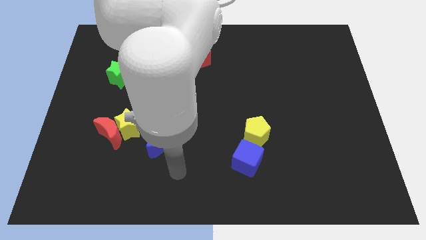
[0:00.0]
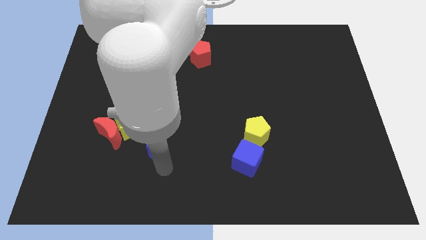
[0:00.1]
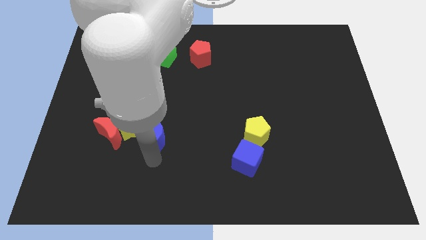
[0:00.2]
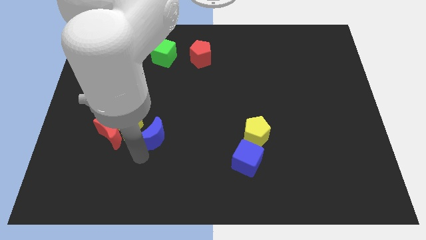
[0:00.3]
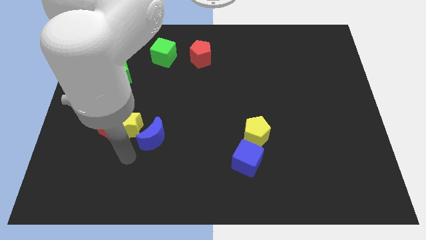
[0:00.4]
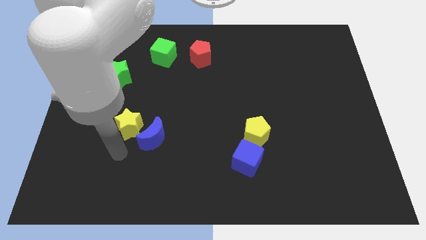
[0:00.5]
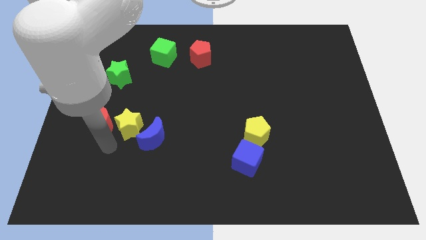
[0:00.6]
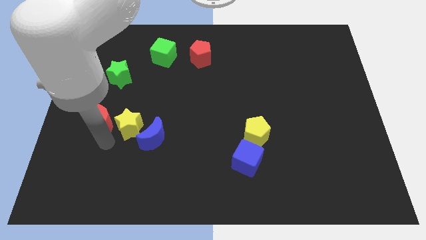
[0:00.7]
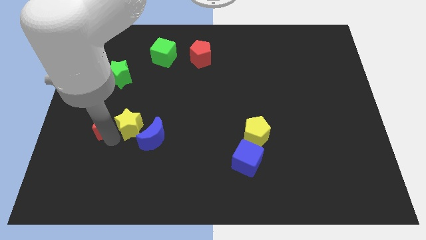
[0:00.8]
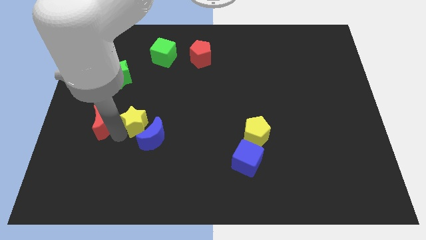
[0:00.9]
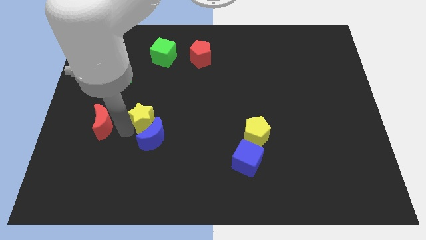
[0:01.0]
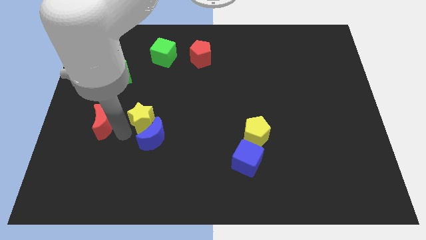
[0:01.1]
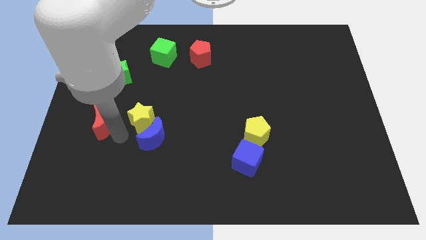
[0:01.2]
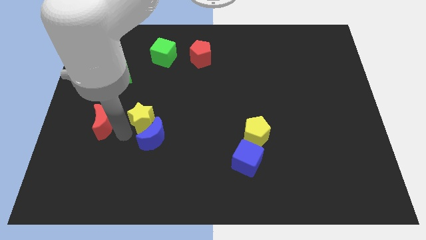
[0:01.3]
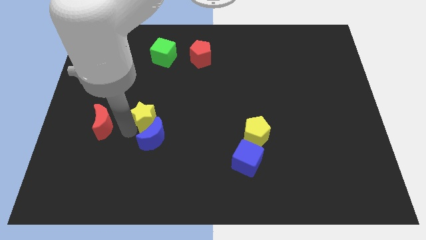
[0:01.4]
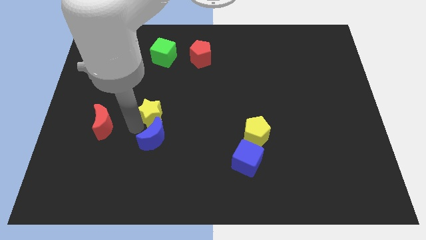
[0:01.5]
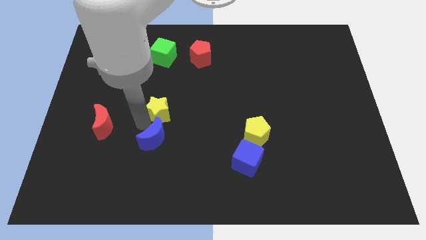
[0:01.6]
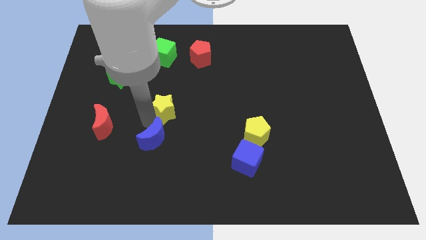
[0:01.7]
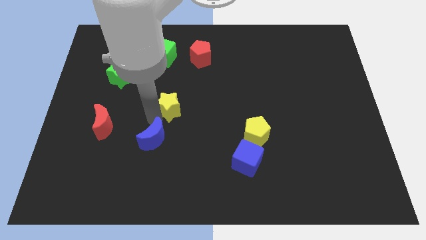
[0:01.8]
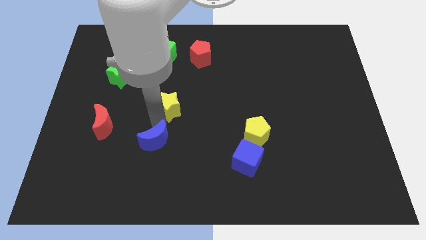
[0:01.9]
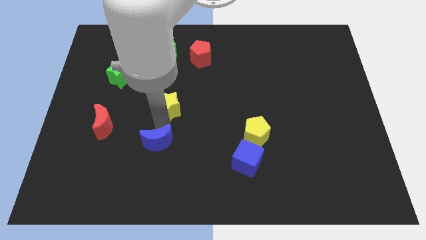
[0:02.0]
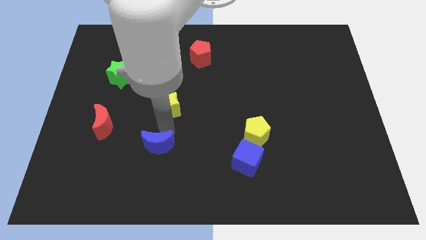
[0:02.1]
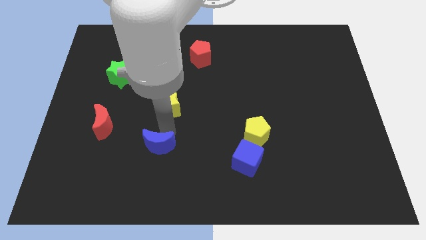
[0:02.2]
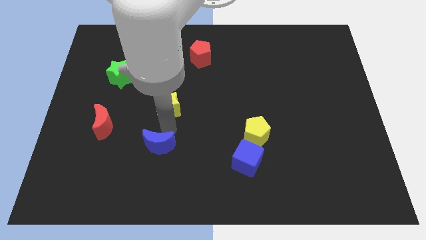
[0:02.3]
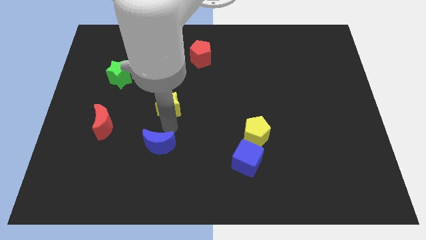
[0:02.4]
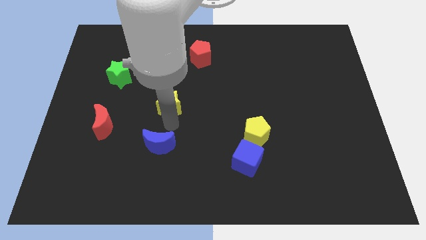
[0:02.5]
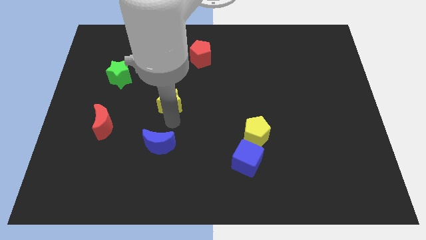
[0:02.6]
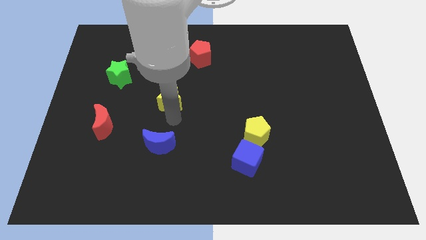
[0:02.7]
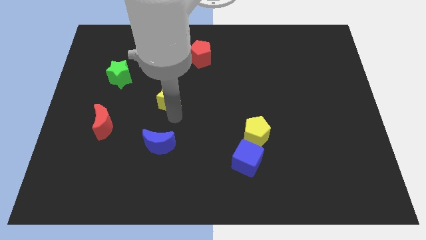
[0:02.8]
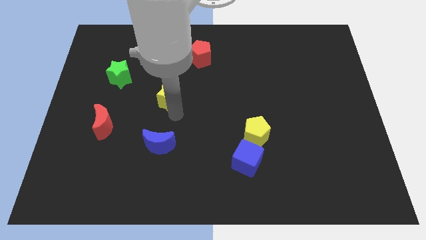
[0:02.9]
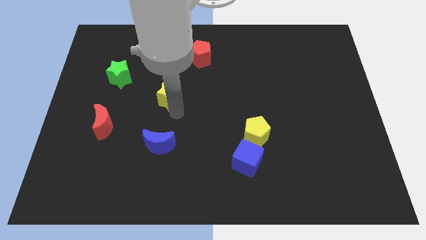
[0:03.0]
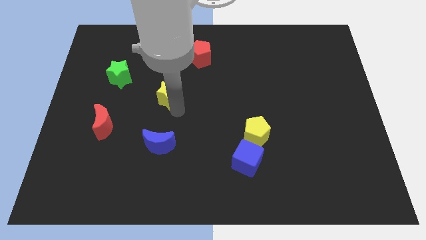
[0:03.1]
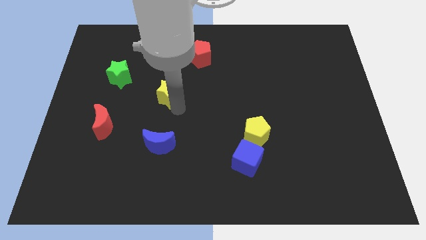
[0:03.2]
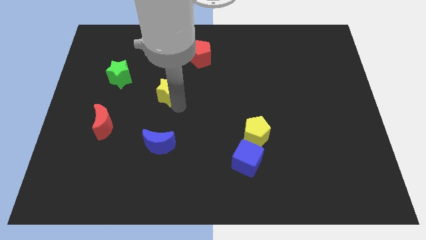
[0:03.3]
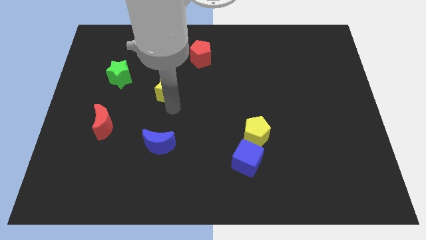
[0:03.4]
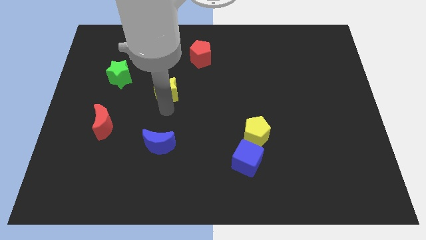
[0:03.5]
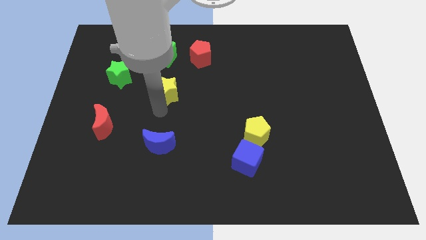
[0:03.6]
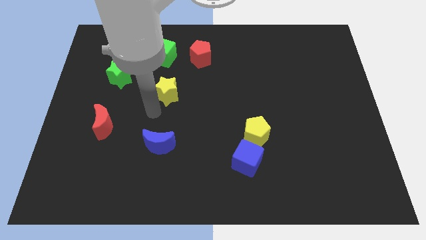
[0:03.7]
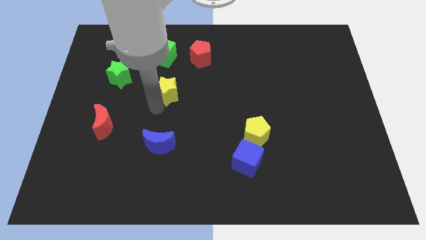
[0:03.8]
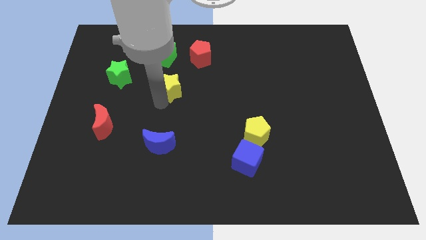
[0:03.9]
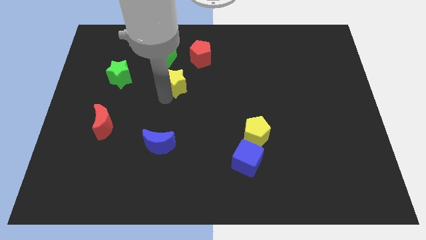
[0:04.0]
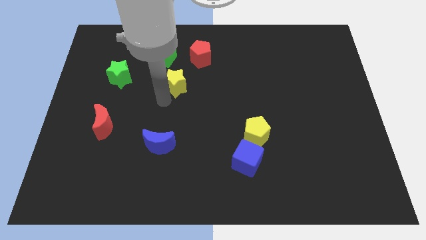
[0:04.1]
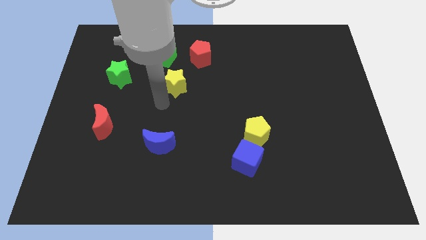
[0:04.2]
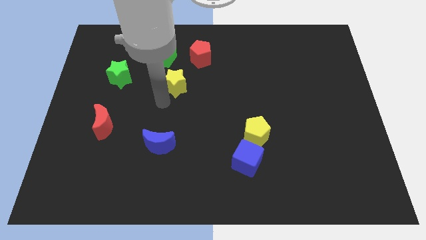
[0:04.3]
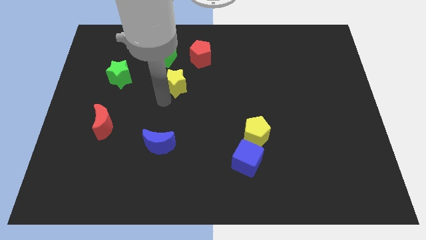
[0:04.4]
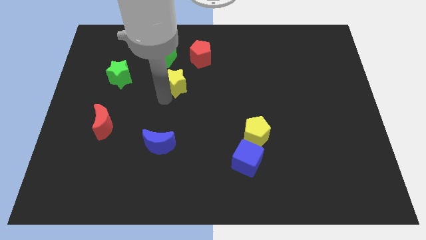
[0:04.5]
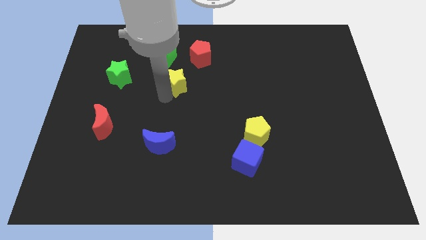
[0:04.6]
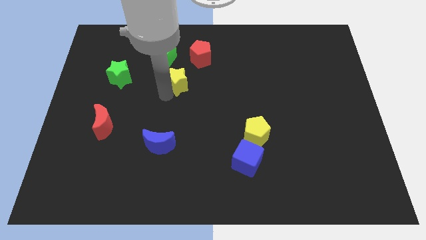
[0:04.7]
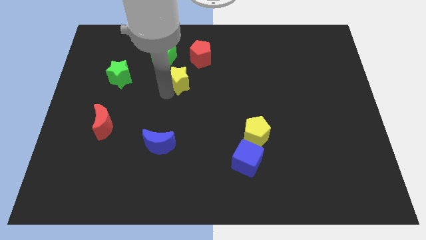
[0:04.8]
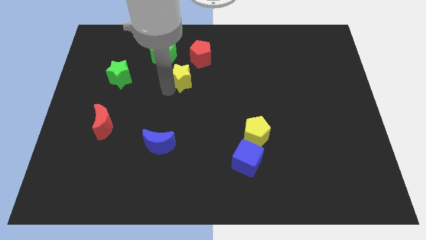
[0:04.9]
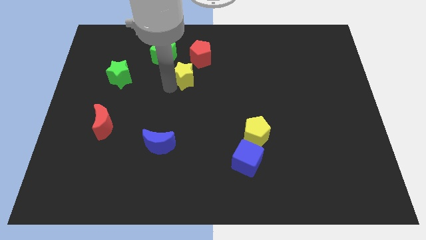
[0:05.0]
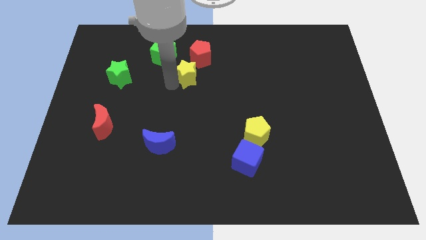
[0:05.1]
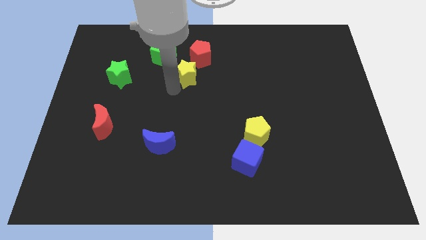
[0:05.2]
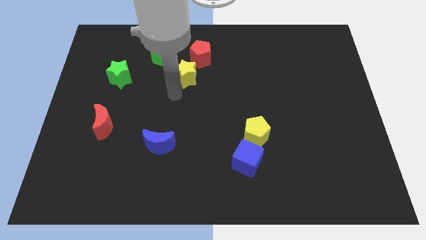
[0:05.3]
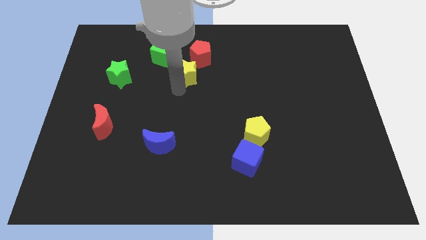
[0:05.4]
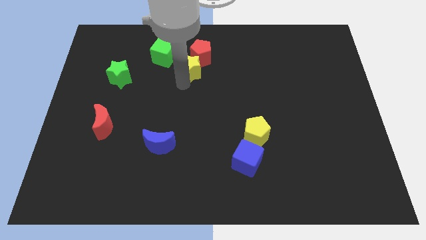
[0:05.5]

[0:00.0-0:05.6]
slide the yellow star to the red pentagon

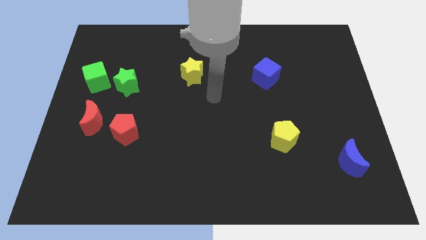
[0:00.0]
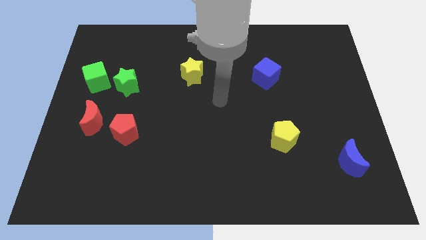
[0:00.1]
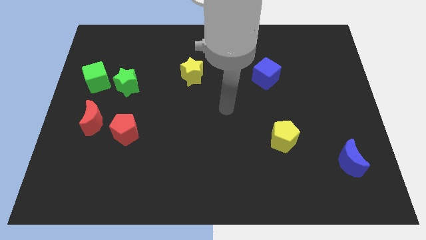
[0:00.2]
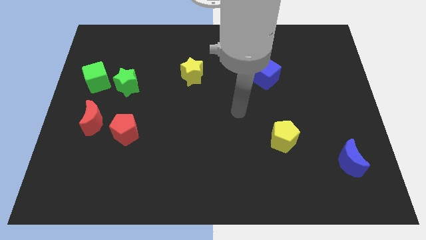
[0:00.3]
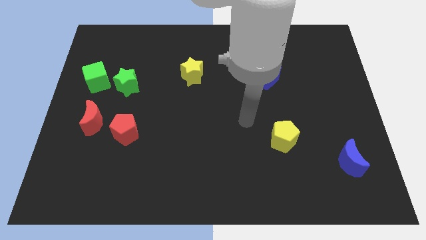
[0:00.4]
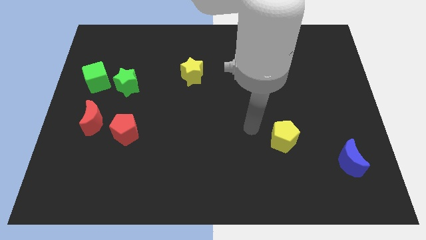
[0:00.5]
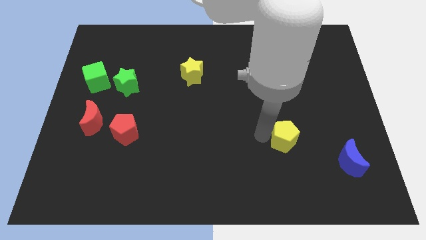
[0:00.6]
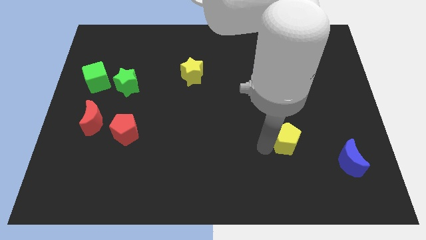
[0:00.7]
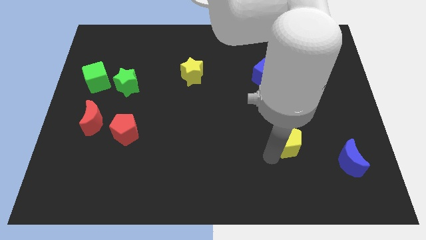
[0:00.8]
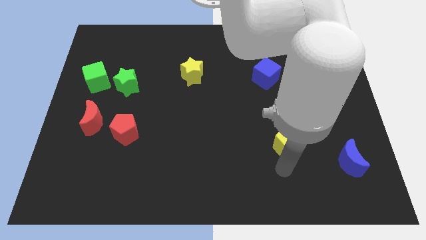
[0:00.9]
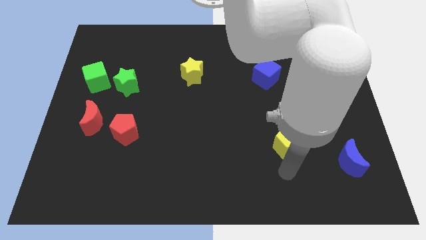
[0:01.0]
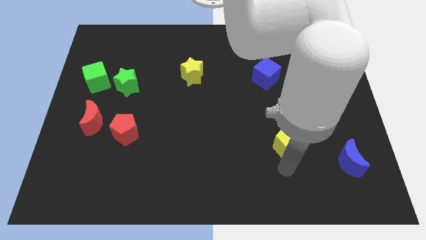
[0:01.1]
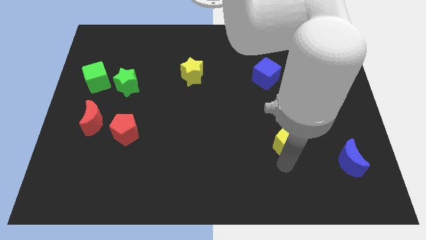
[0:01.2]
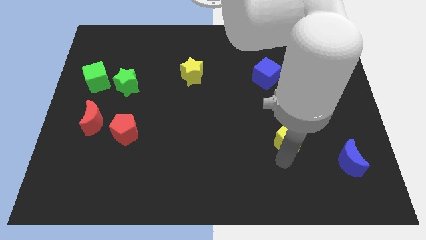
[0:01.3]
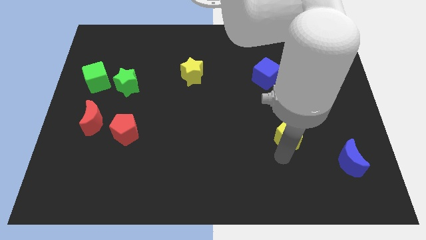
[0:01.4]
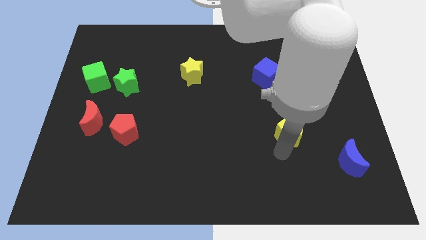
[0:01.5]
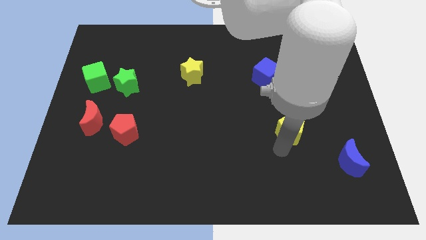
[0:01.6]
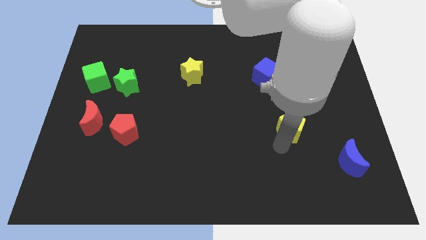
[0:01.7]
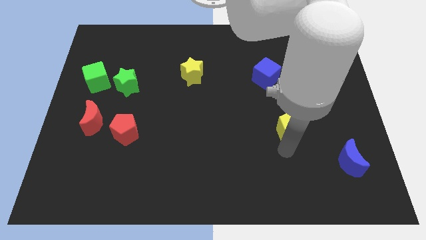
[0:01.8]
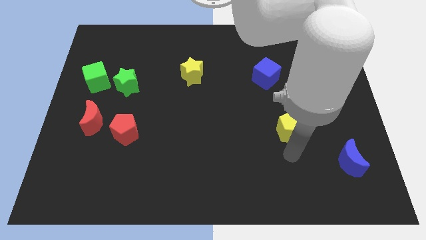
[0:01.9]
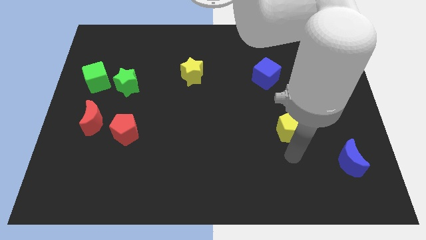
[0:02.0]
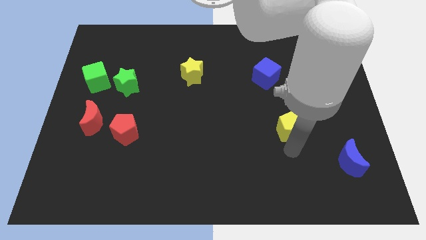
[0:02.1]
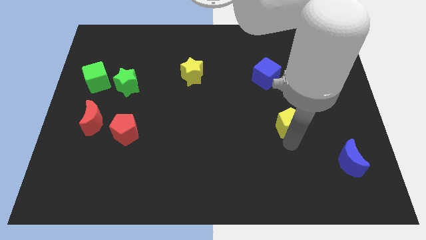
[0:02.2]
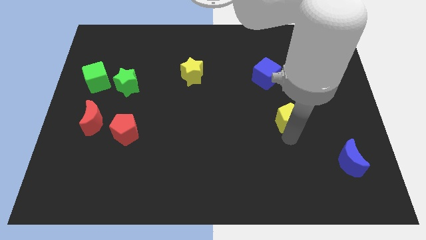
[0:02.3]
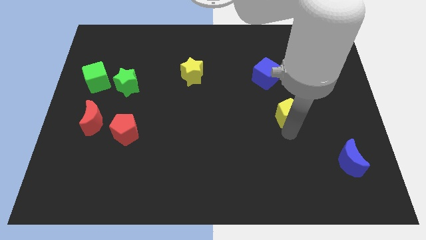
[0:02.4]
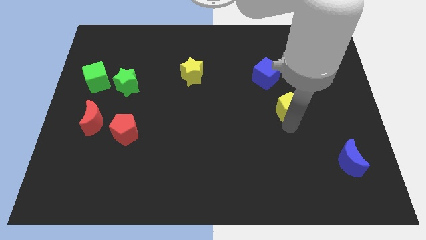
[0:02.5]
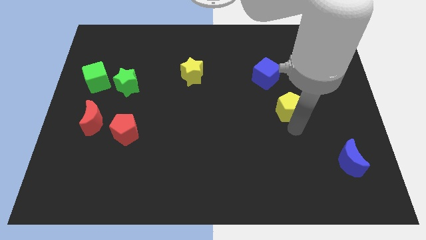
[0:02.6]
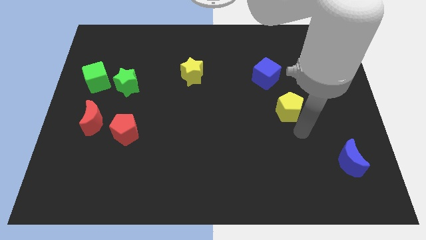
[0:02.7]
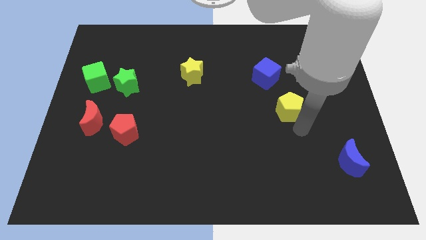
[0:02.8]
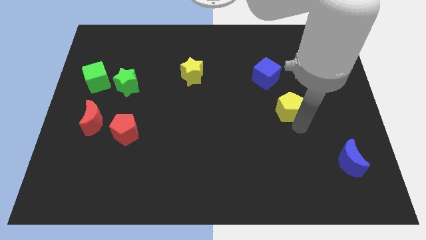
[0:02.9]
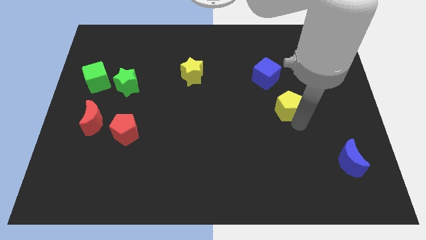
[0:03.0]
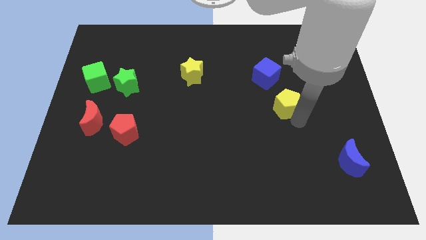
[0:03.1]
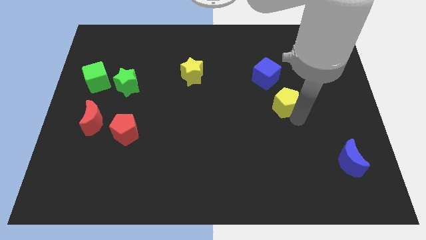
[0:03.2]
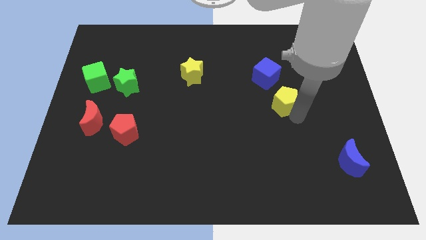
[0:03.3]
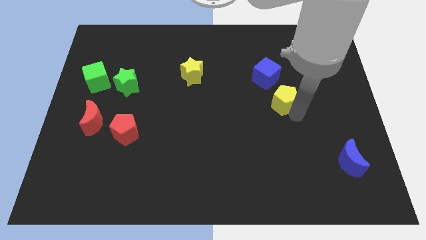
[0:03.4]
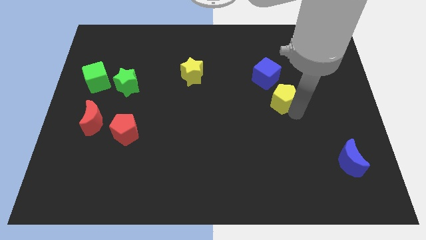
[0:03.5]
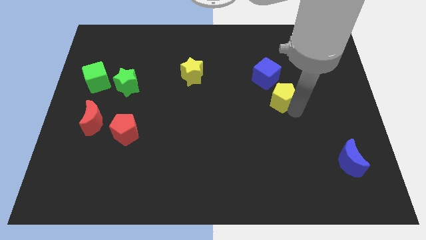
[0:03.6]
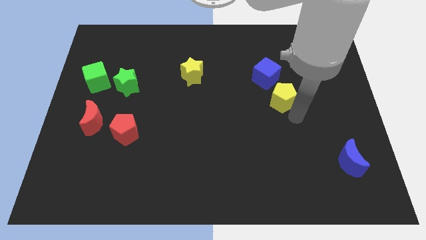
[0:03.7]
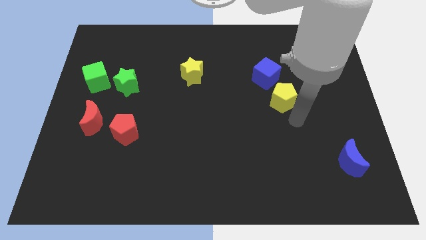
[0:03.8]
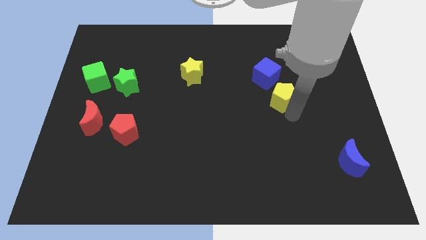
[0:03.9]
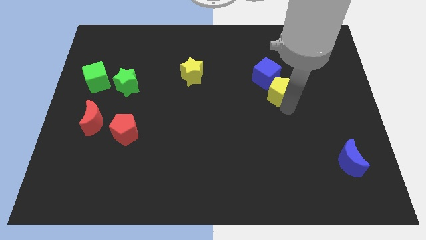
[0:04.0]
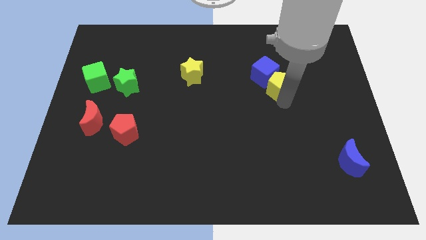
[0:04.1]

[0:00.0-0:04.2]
push the yellow pentagon to the blue cube
